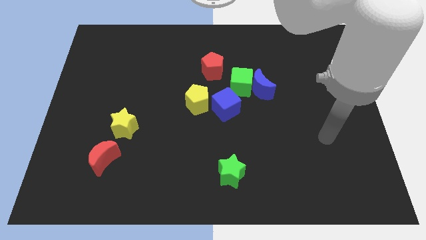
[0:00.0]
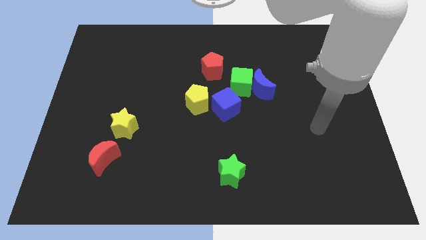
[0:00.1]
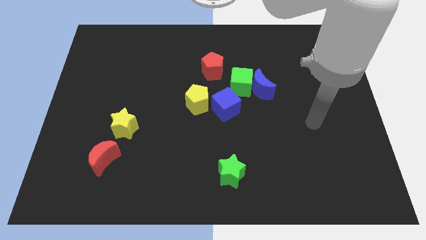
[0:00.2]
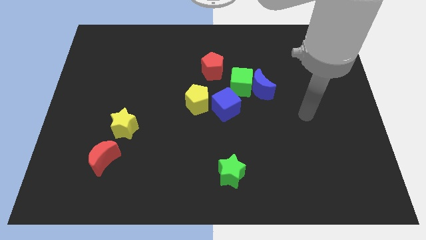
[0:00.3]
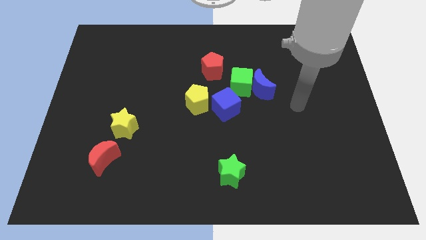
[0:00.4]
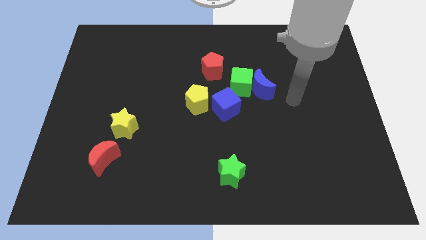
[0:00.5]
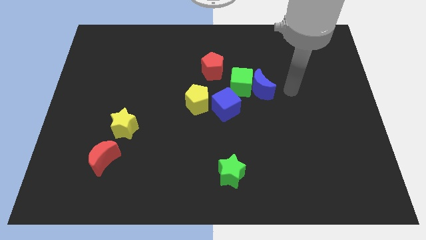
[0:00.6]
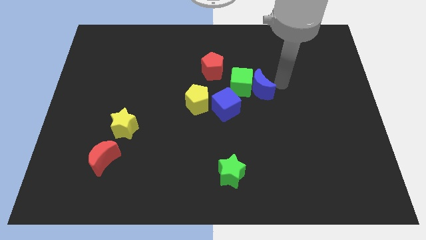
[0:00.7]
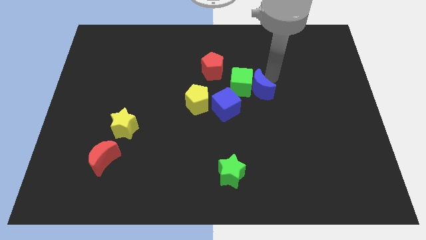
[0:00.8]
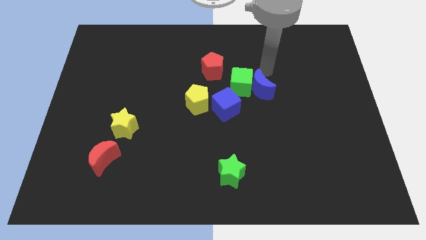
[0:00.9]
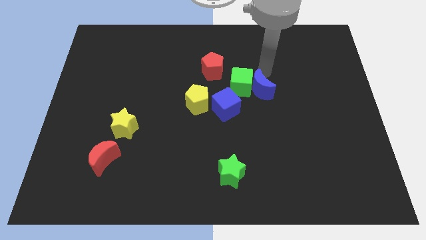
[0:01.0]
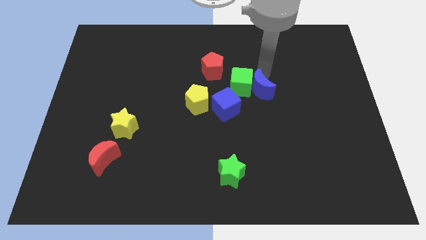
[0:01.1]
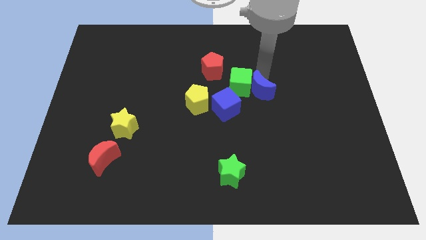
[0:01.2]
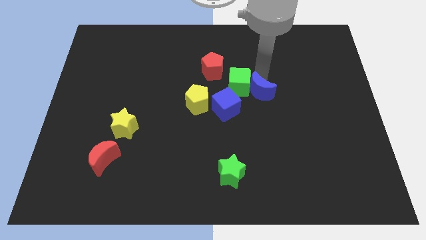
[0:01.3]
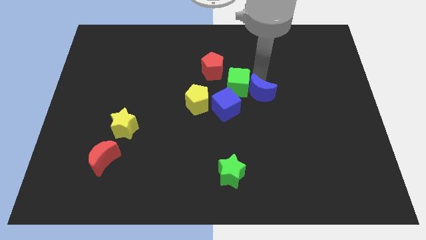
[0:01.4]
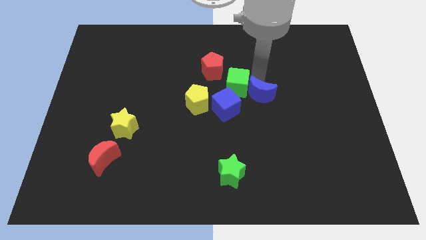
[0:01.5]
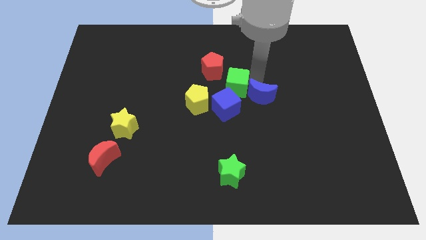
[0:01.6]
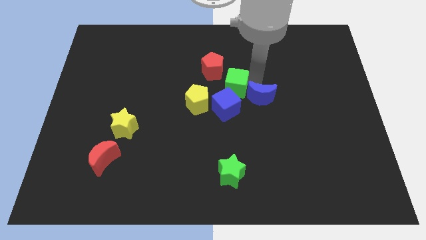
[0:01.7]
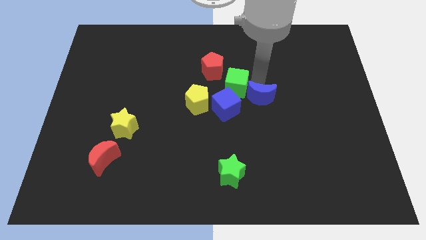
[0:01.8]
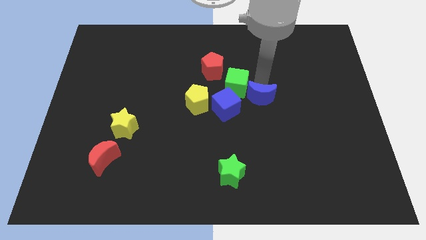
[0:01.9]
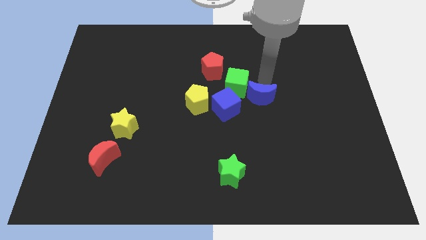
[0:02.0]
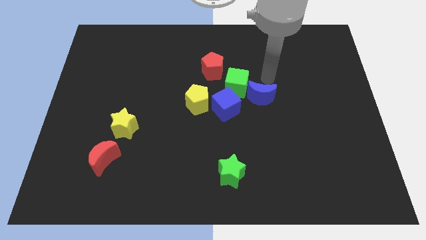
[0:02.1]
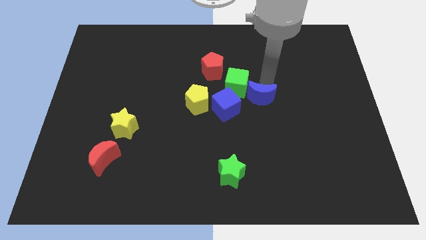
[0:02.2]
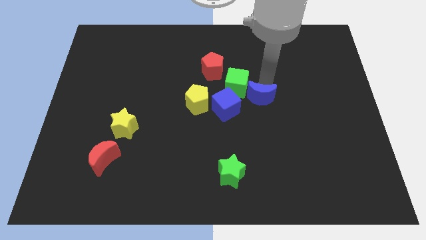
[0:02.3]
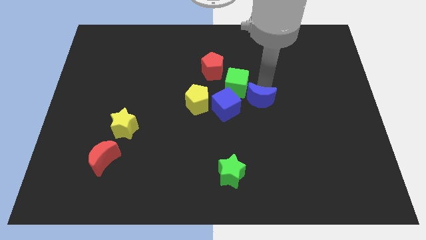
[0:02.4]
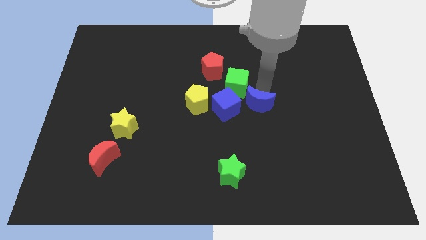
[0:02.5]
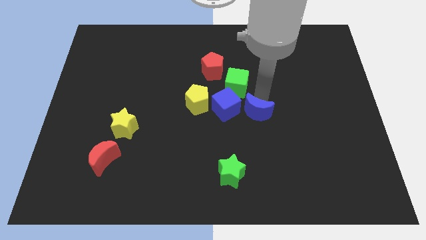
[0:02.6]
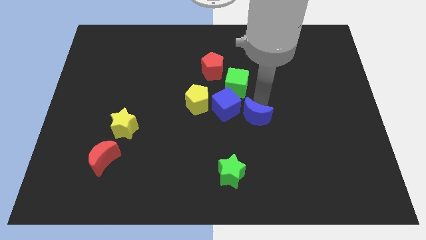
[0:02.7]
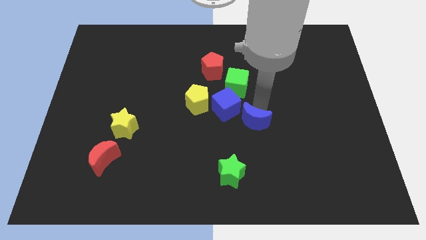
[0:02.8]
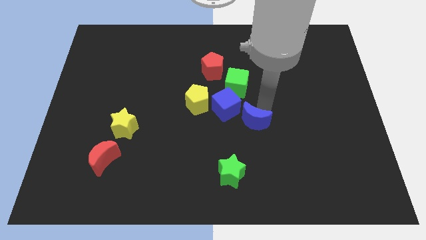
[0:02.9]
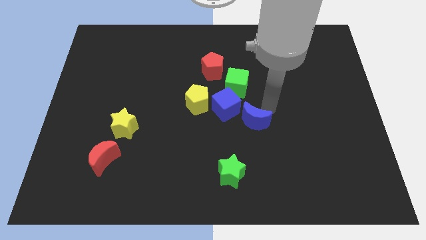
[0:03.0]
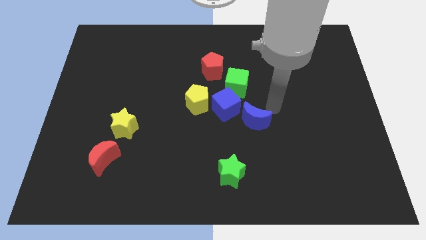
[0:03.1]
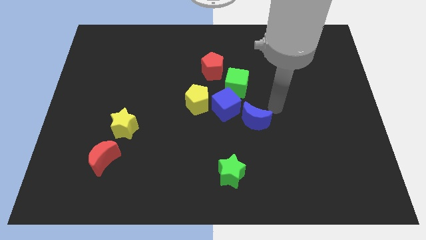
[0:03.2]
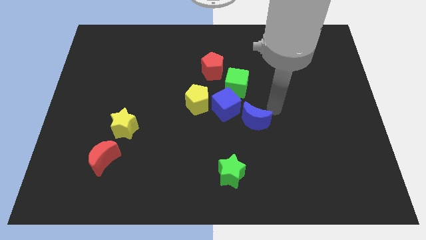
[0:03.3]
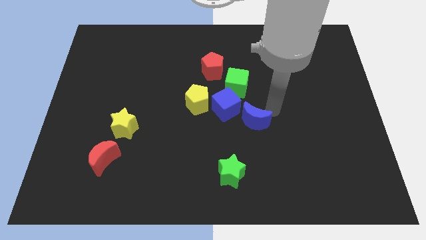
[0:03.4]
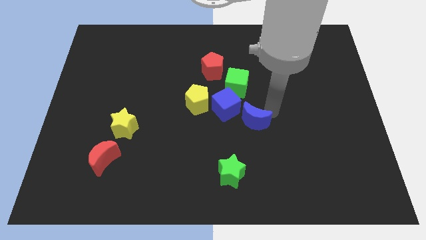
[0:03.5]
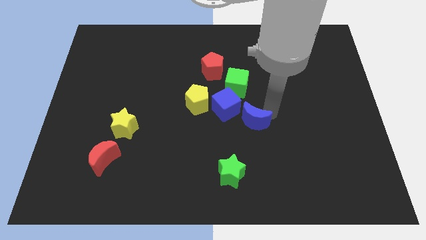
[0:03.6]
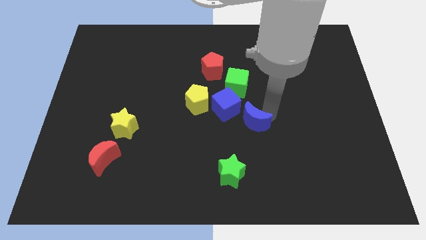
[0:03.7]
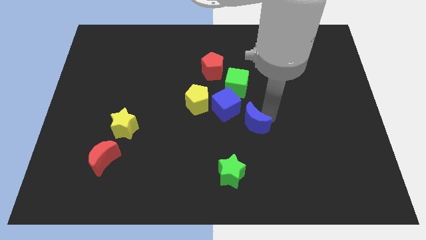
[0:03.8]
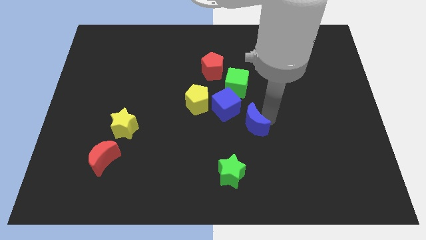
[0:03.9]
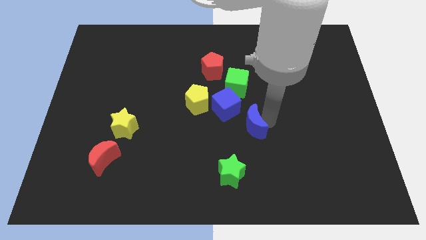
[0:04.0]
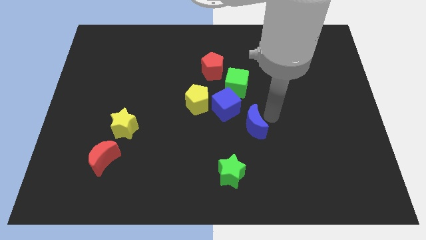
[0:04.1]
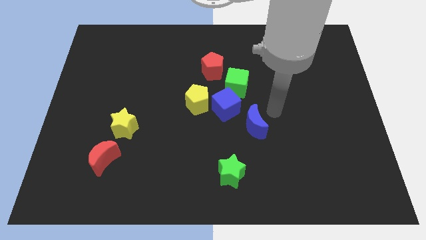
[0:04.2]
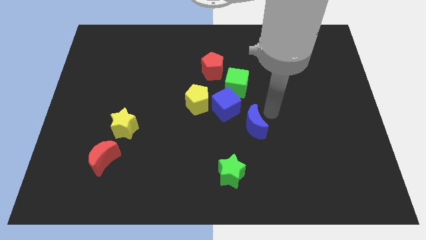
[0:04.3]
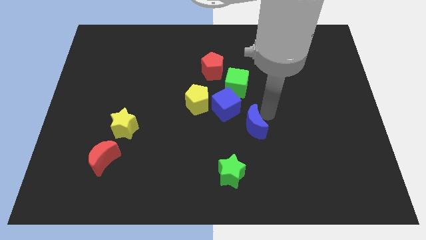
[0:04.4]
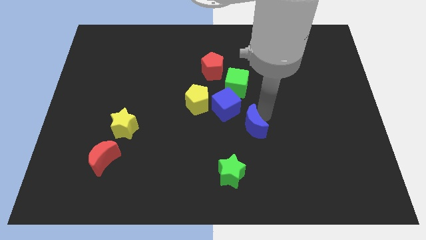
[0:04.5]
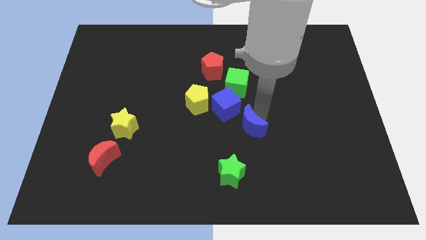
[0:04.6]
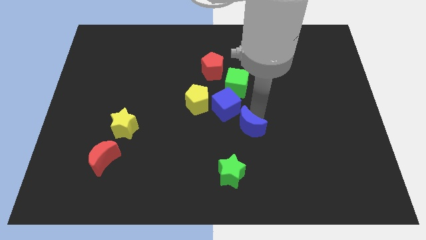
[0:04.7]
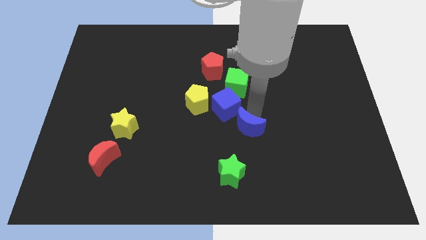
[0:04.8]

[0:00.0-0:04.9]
move the blue moon to the bottom side of the blue cube

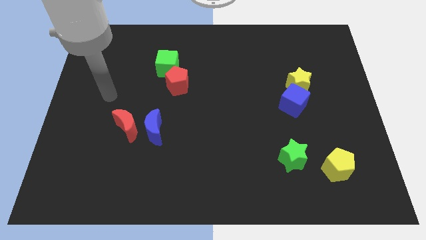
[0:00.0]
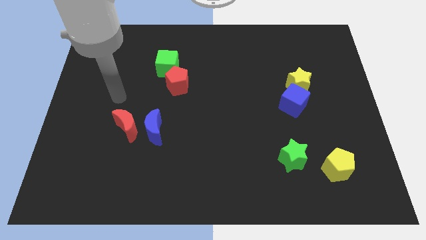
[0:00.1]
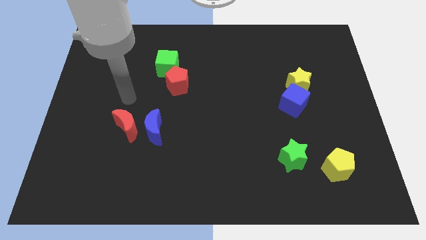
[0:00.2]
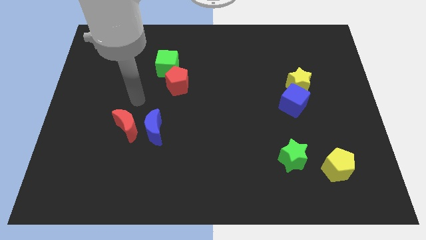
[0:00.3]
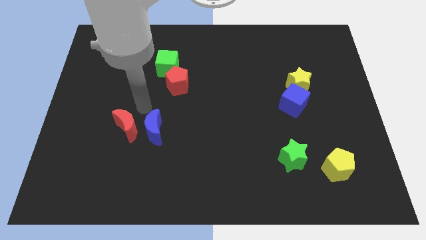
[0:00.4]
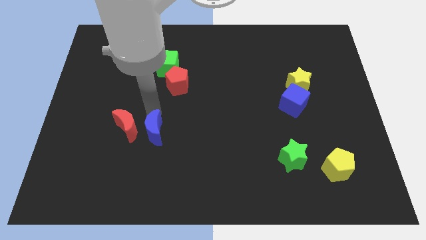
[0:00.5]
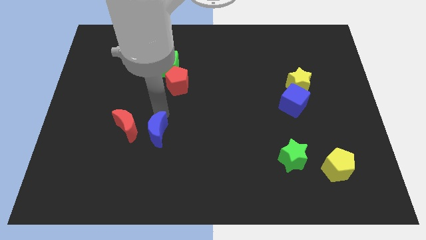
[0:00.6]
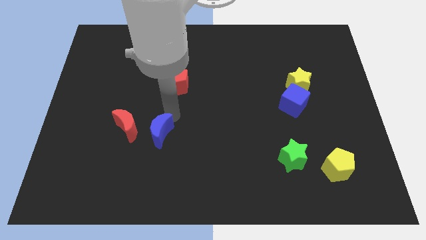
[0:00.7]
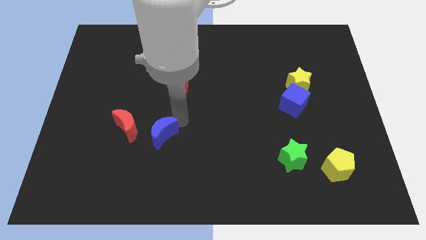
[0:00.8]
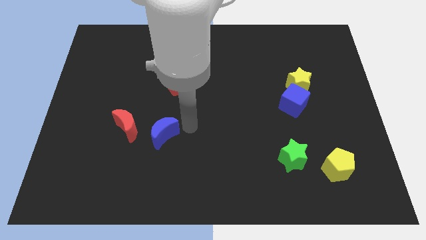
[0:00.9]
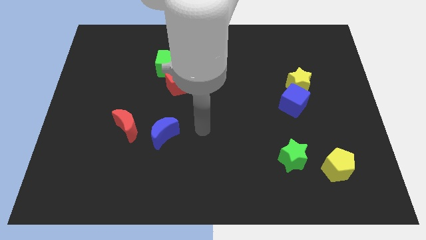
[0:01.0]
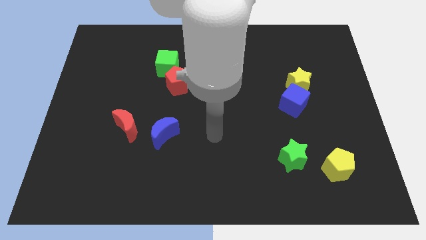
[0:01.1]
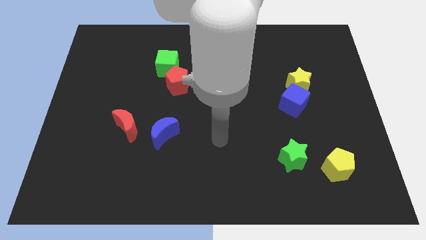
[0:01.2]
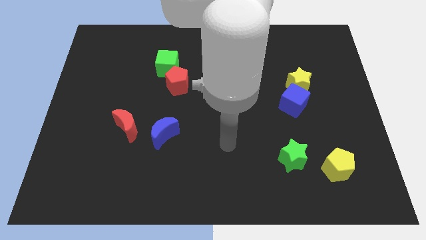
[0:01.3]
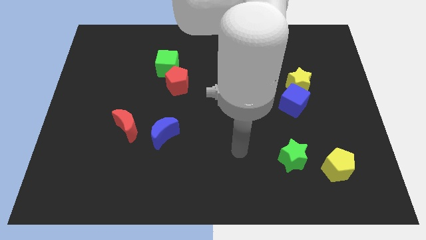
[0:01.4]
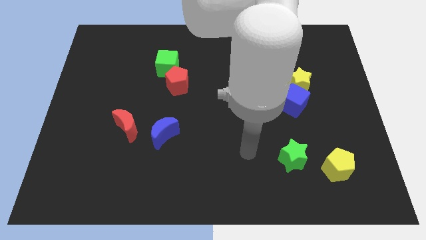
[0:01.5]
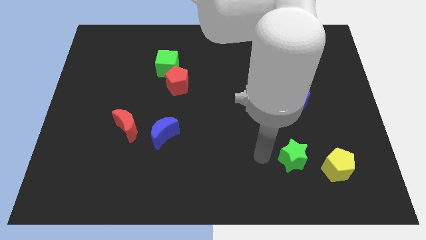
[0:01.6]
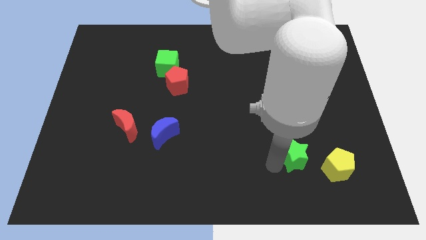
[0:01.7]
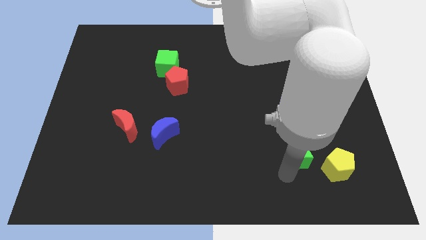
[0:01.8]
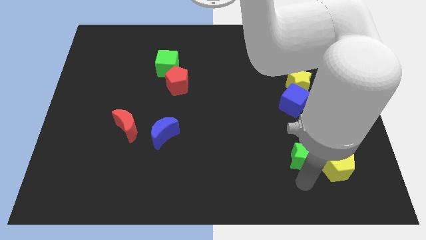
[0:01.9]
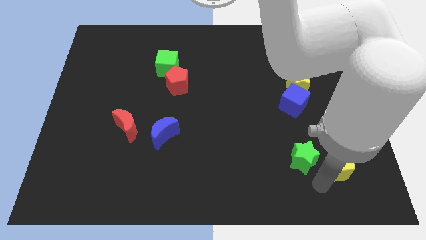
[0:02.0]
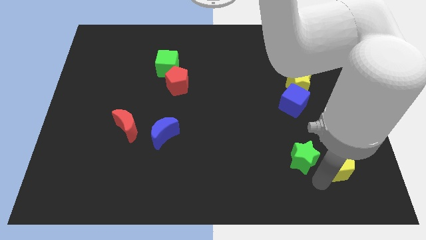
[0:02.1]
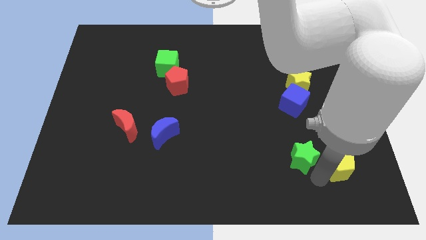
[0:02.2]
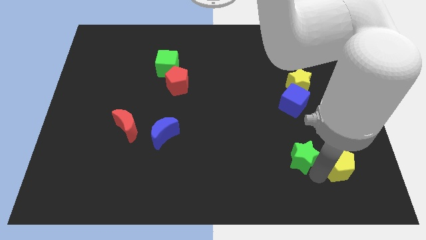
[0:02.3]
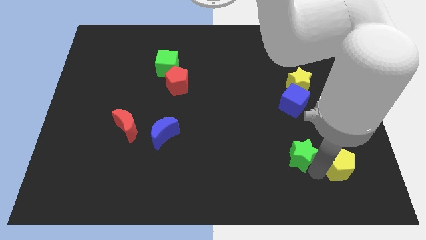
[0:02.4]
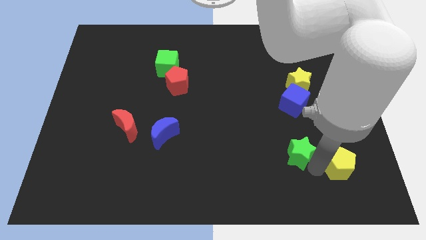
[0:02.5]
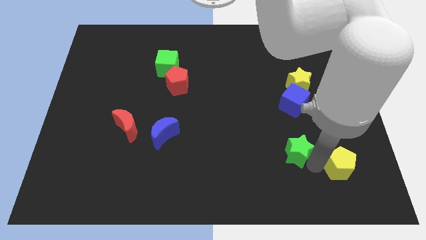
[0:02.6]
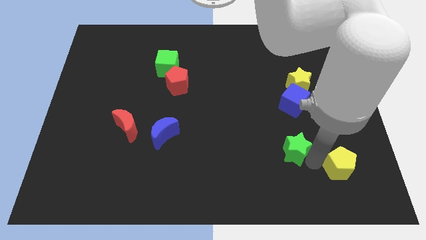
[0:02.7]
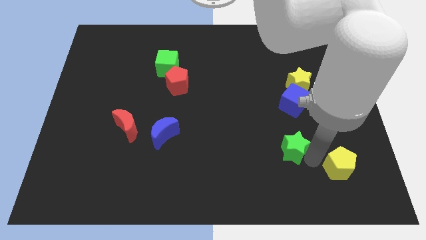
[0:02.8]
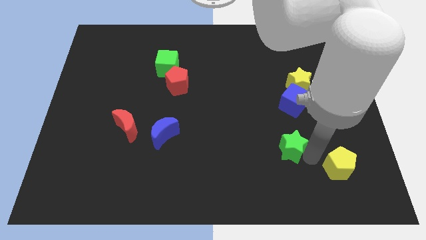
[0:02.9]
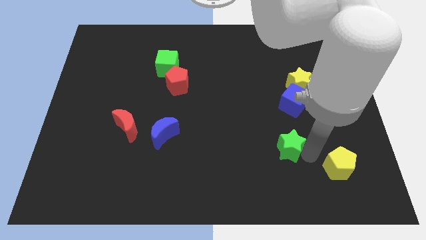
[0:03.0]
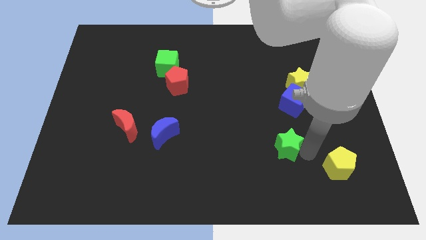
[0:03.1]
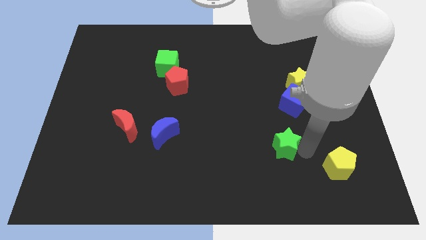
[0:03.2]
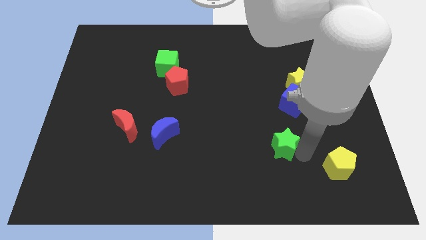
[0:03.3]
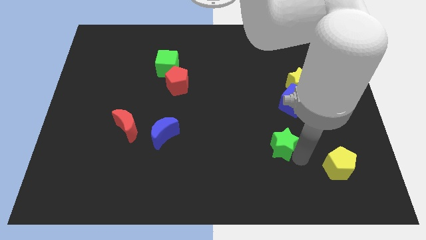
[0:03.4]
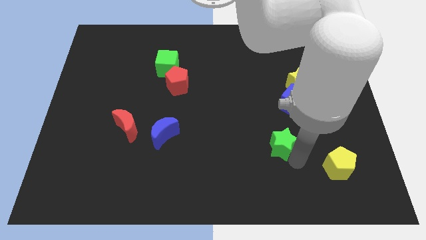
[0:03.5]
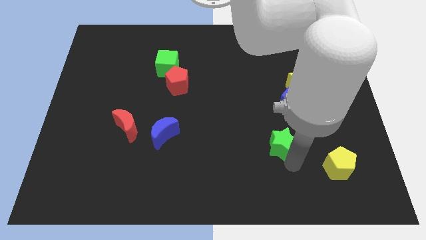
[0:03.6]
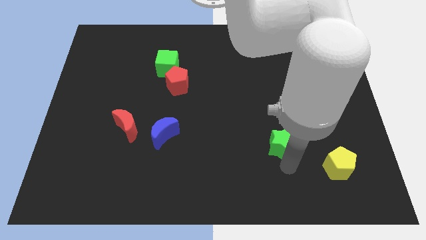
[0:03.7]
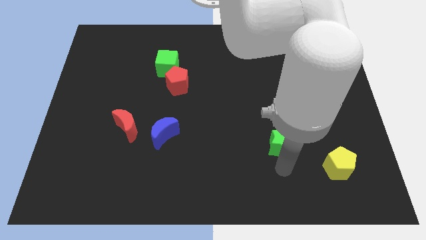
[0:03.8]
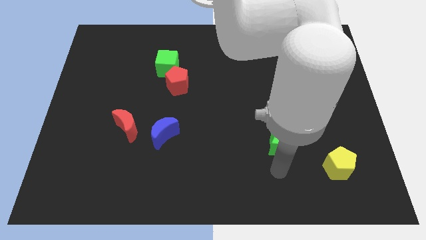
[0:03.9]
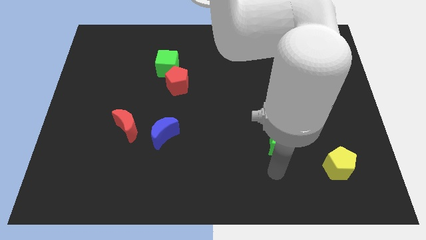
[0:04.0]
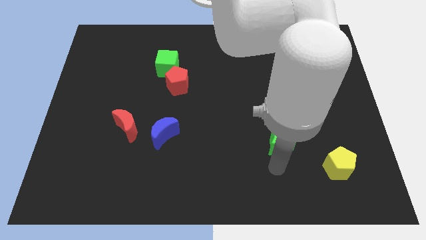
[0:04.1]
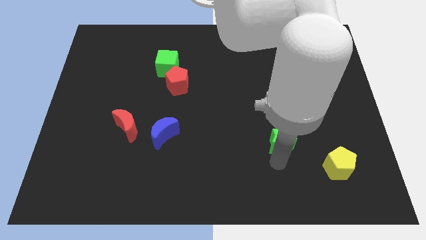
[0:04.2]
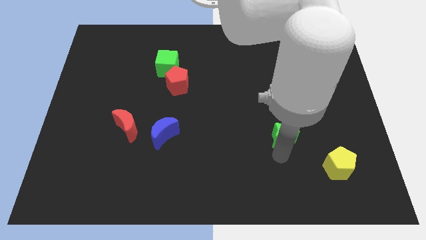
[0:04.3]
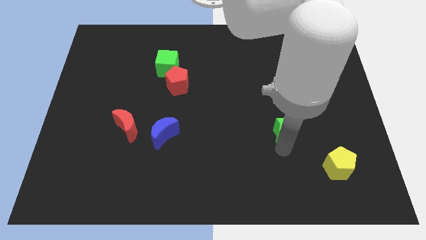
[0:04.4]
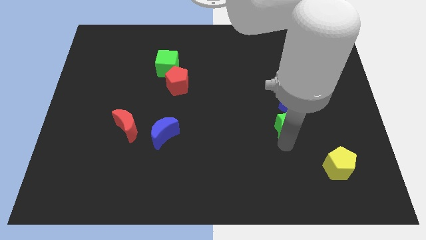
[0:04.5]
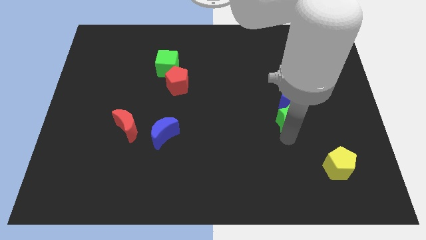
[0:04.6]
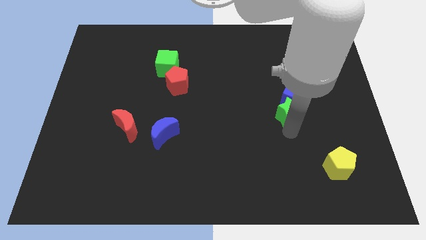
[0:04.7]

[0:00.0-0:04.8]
put the green star to the bottom left of the yellow star
